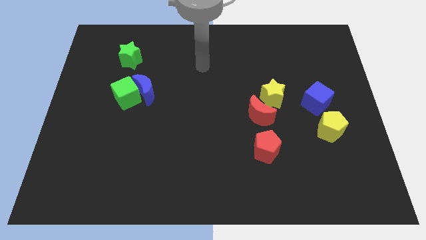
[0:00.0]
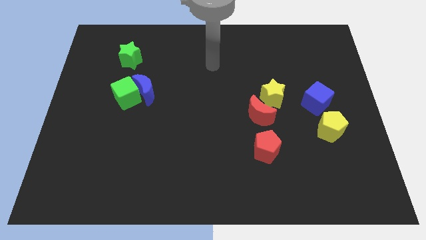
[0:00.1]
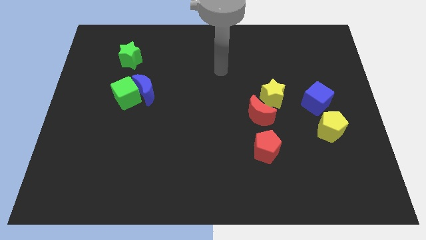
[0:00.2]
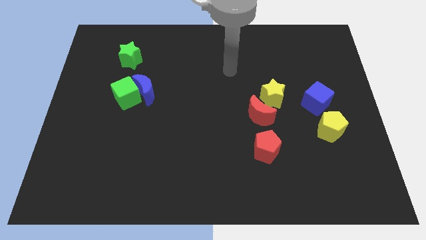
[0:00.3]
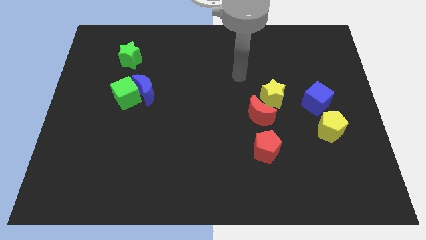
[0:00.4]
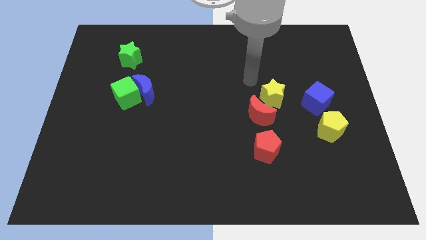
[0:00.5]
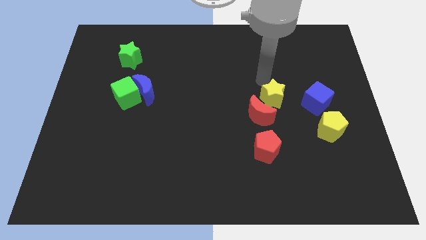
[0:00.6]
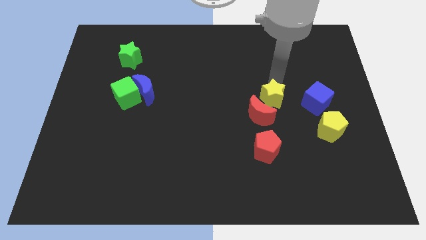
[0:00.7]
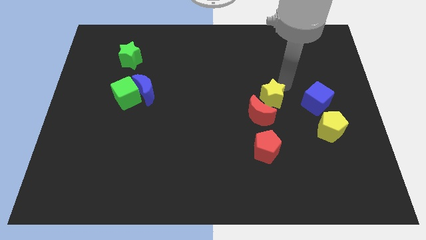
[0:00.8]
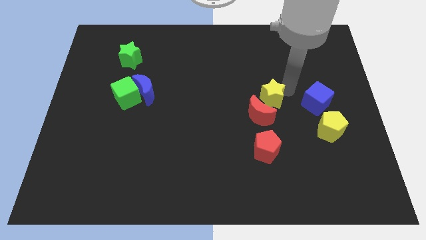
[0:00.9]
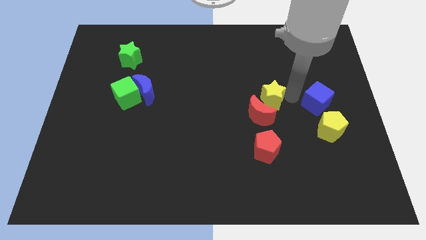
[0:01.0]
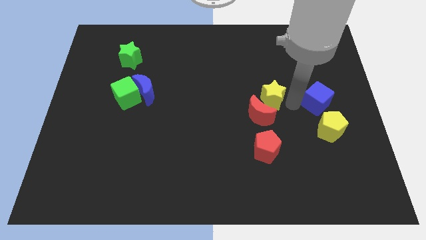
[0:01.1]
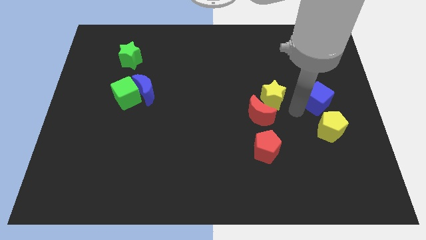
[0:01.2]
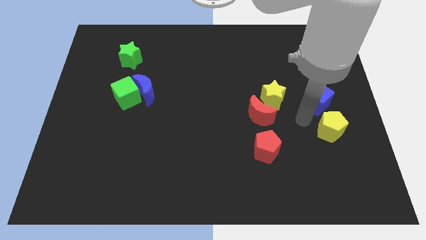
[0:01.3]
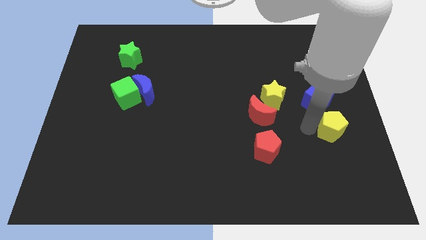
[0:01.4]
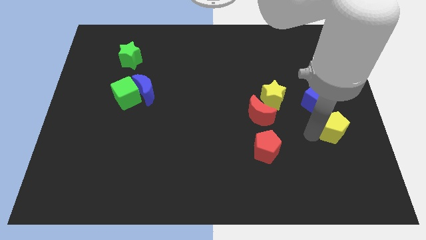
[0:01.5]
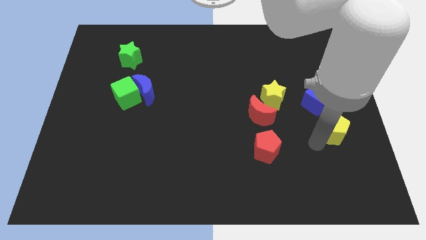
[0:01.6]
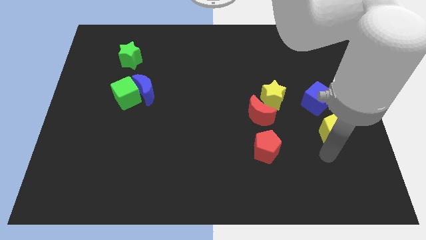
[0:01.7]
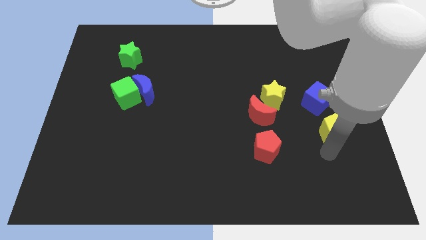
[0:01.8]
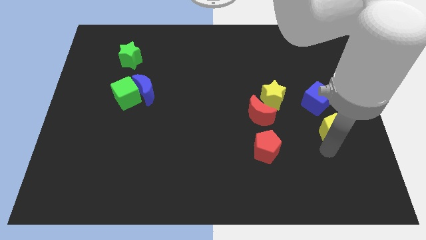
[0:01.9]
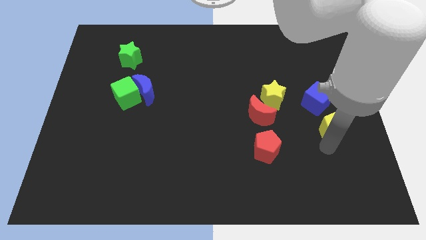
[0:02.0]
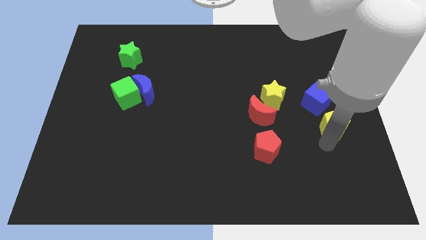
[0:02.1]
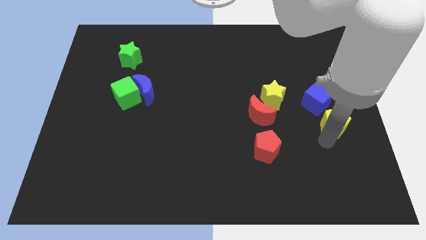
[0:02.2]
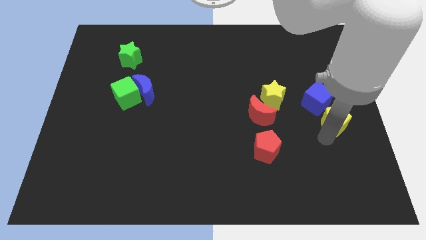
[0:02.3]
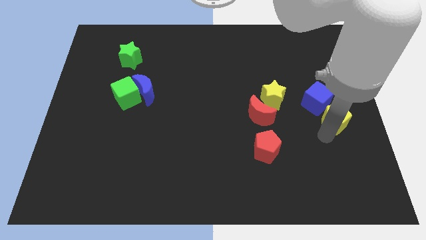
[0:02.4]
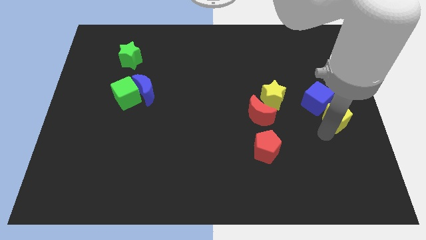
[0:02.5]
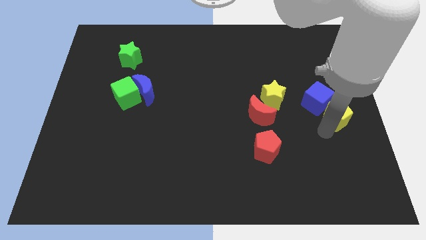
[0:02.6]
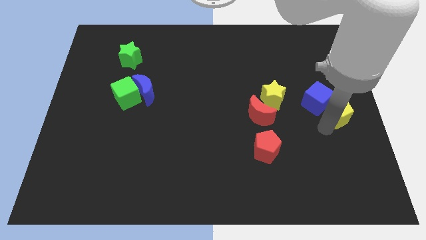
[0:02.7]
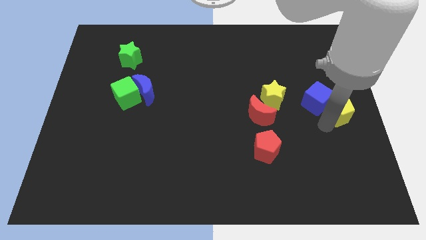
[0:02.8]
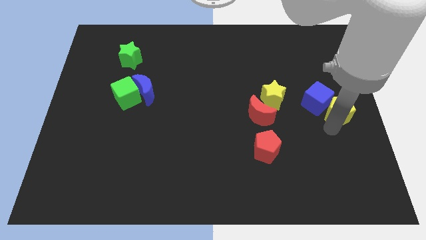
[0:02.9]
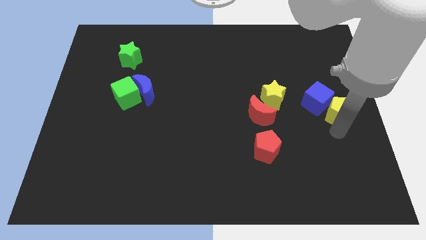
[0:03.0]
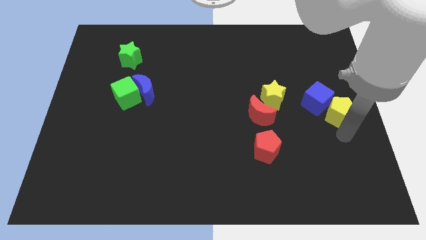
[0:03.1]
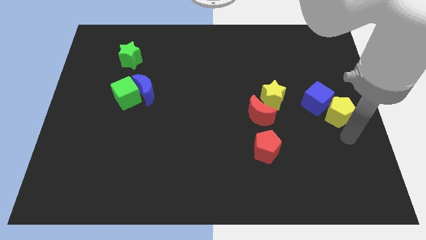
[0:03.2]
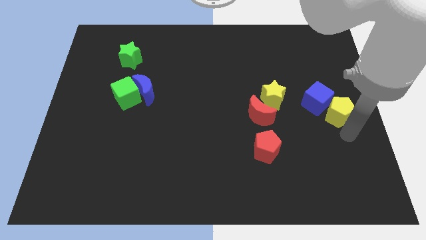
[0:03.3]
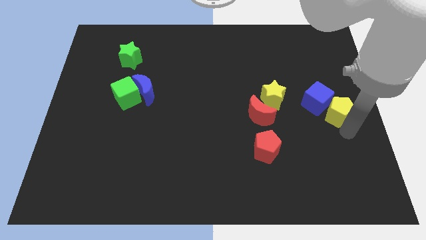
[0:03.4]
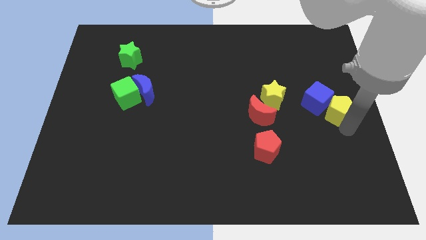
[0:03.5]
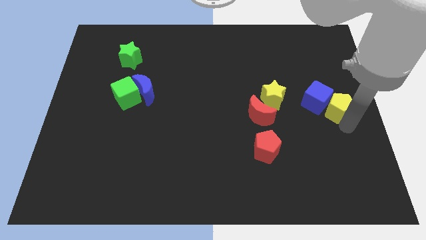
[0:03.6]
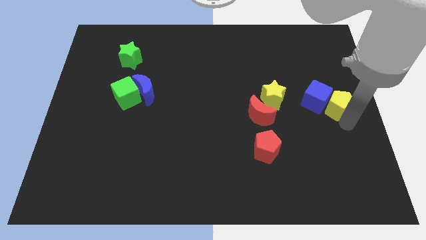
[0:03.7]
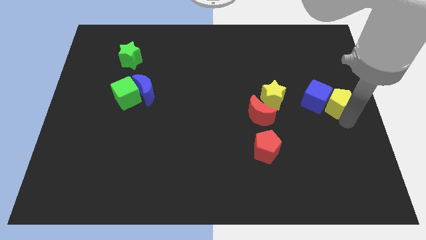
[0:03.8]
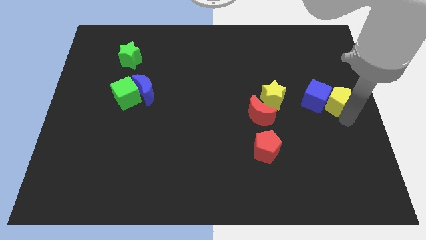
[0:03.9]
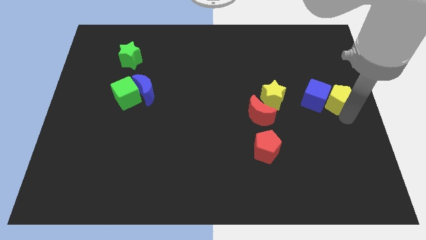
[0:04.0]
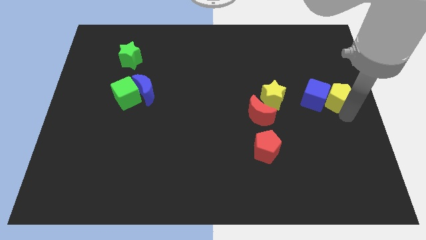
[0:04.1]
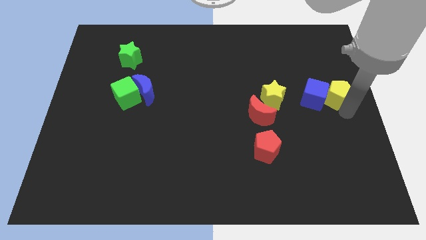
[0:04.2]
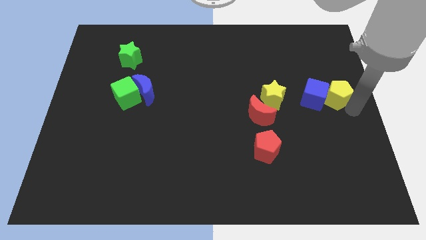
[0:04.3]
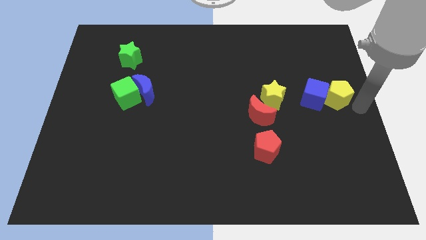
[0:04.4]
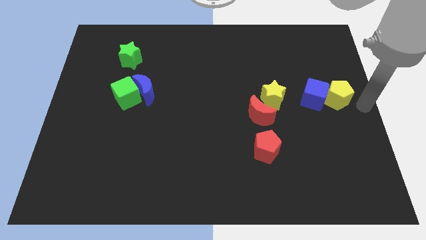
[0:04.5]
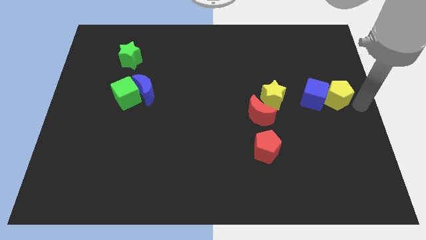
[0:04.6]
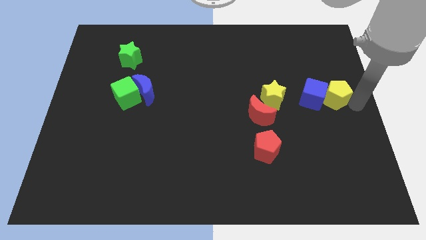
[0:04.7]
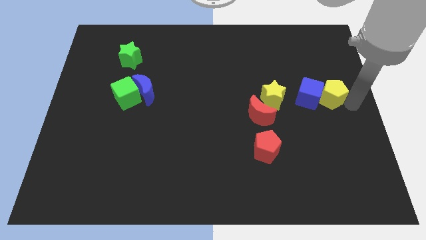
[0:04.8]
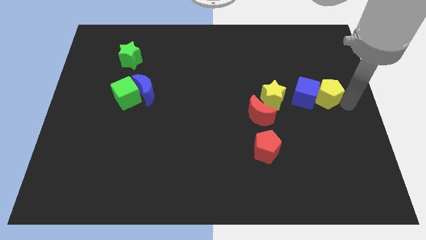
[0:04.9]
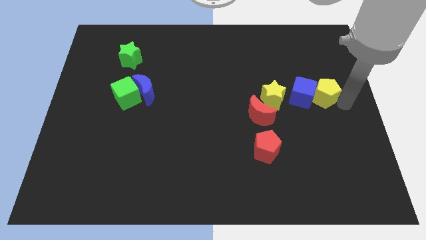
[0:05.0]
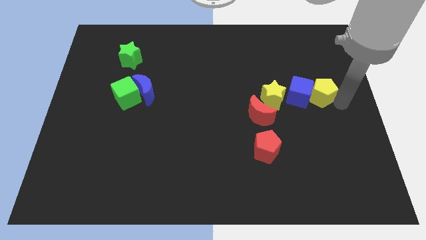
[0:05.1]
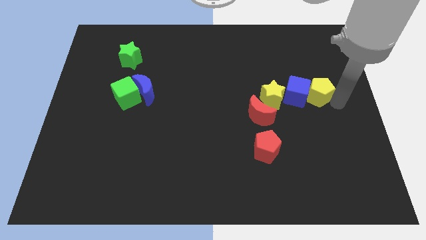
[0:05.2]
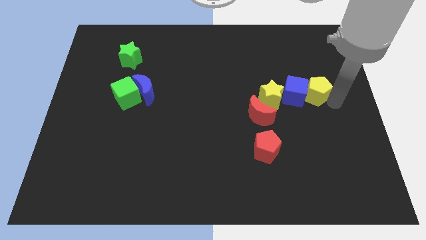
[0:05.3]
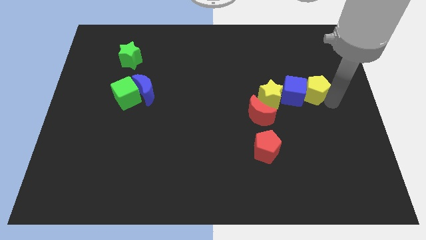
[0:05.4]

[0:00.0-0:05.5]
slightly move the yellow pentagon diagonally up and to the left

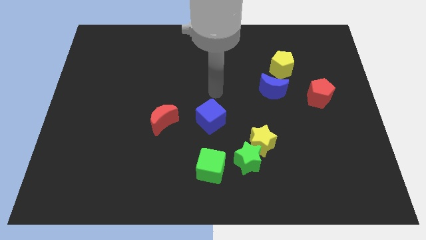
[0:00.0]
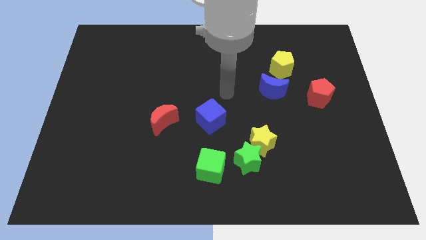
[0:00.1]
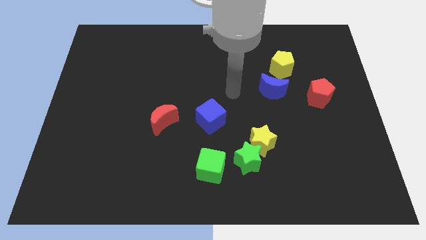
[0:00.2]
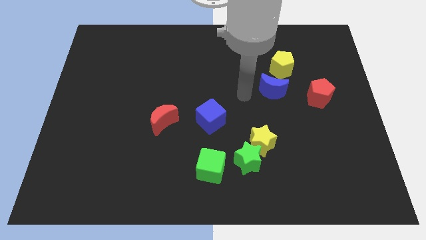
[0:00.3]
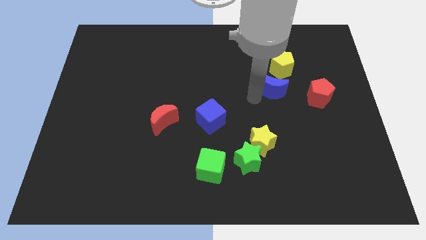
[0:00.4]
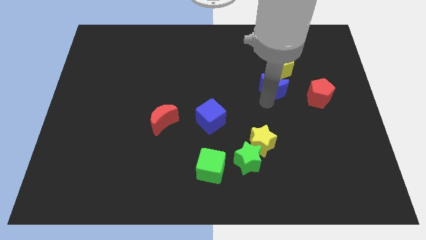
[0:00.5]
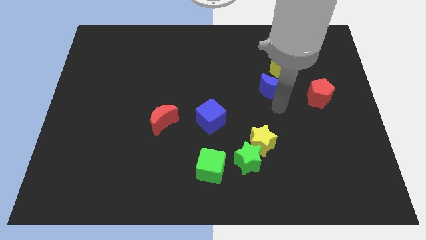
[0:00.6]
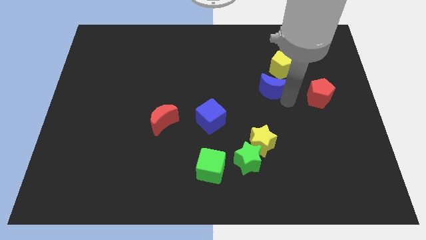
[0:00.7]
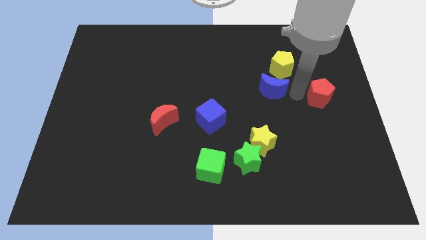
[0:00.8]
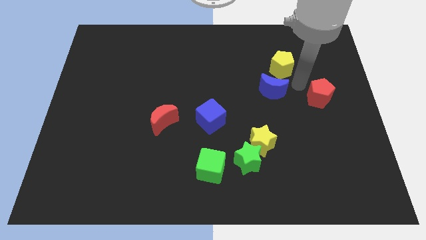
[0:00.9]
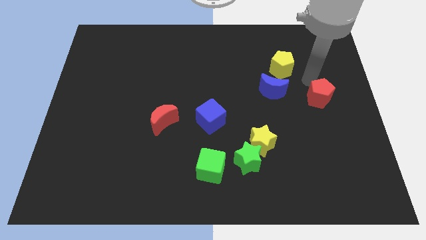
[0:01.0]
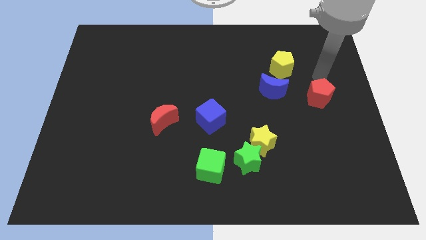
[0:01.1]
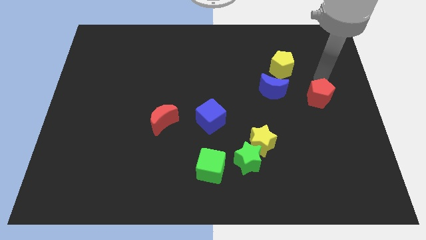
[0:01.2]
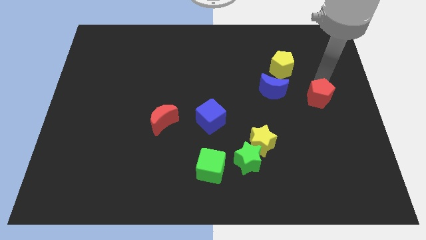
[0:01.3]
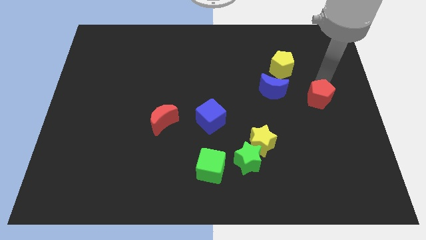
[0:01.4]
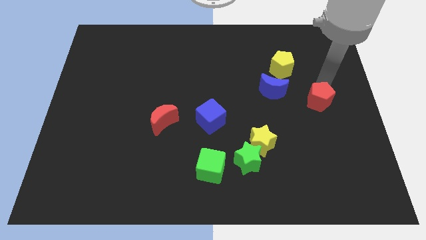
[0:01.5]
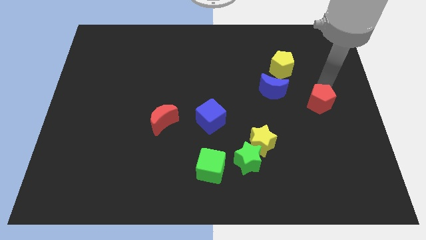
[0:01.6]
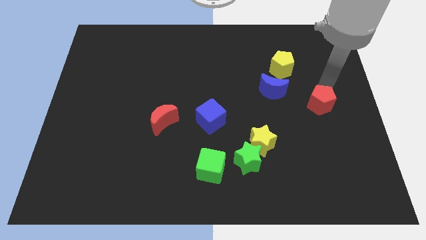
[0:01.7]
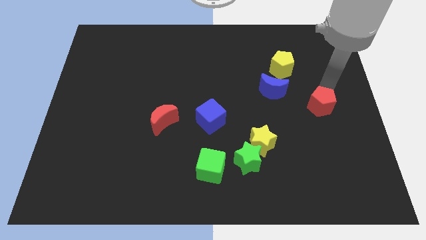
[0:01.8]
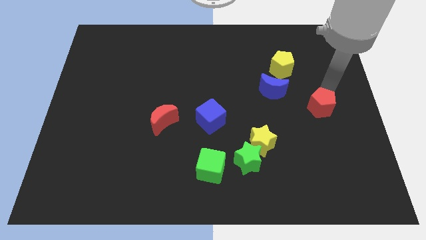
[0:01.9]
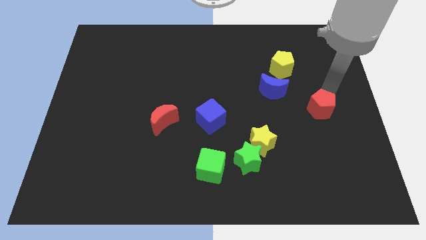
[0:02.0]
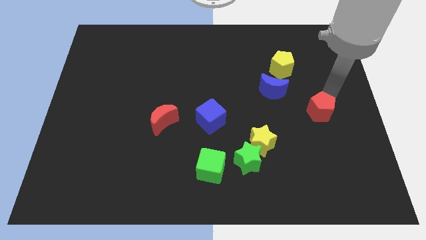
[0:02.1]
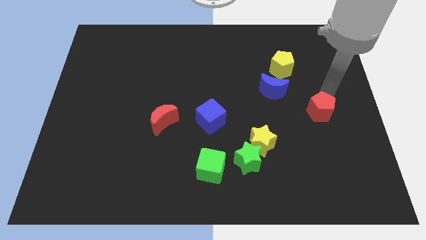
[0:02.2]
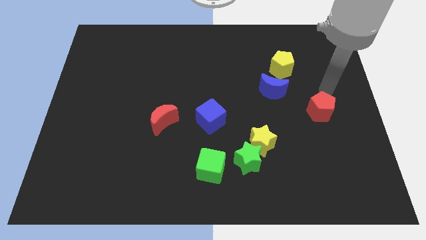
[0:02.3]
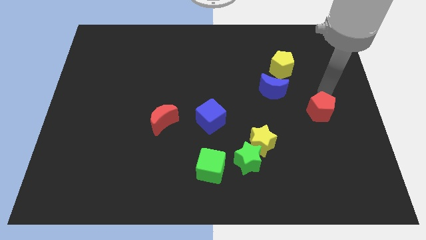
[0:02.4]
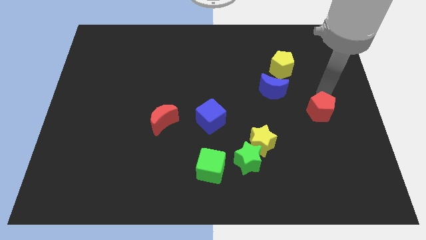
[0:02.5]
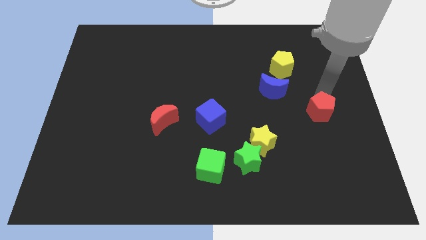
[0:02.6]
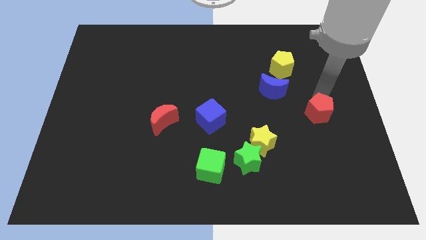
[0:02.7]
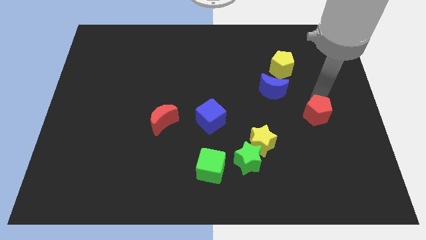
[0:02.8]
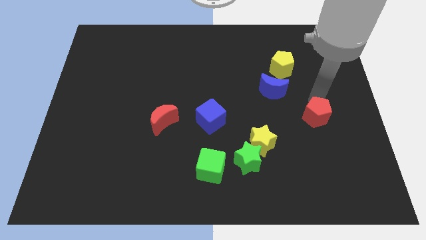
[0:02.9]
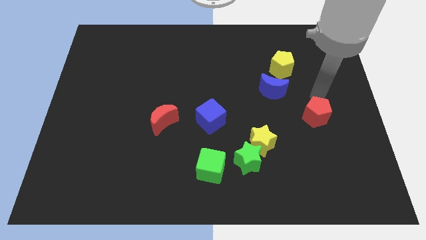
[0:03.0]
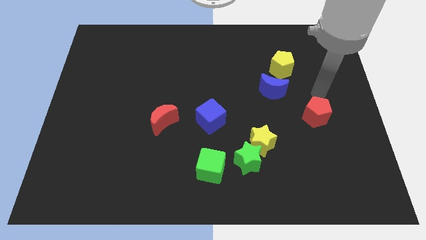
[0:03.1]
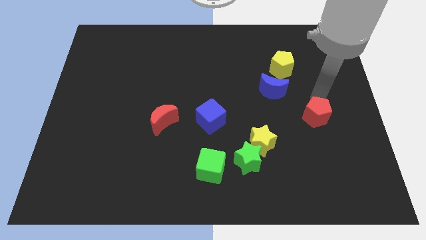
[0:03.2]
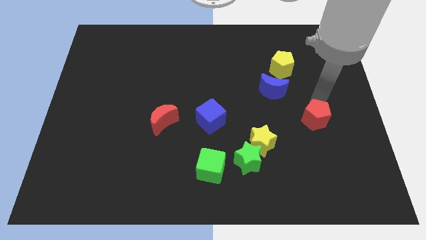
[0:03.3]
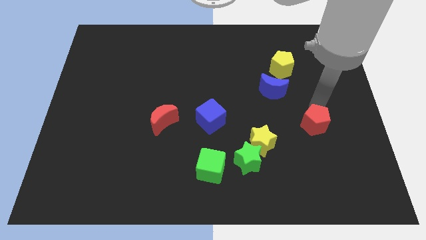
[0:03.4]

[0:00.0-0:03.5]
push the red pentagon a little down
